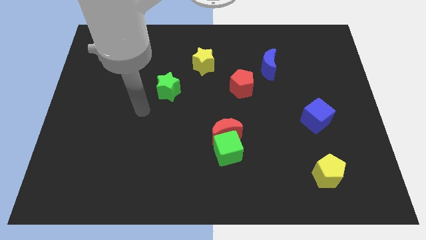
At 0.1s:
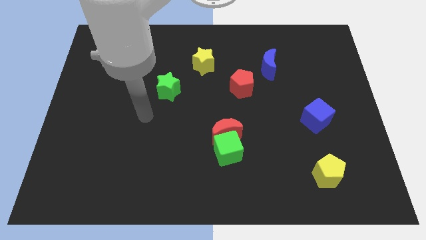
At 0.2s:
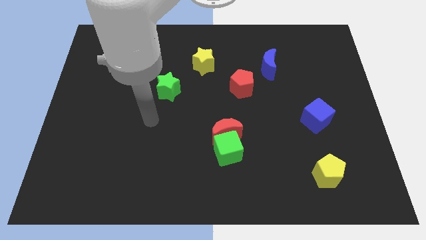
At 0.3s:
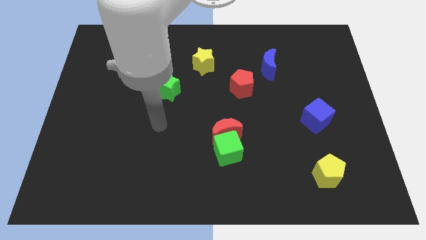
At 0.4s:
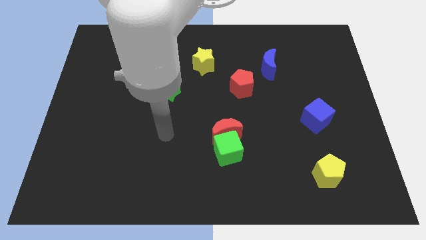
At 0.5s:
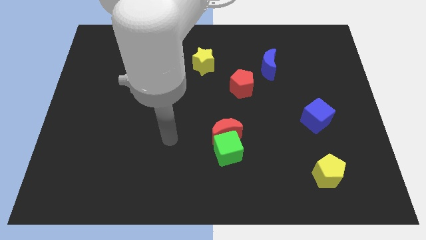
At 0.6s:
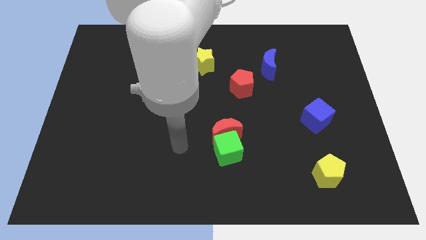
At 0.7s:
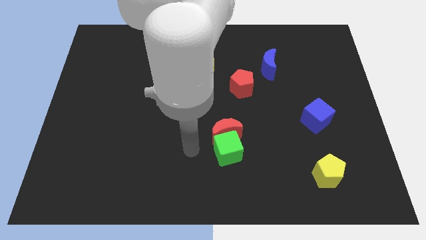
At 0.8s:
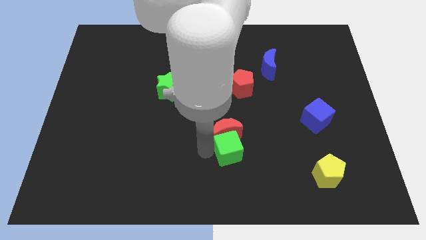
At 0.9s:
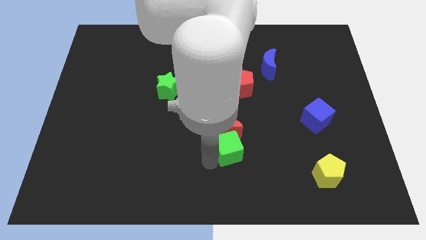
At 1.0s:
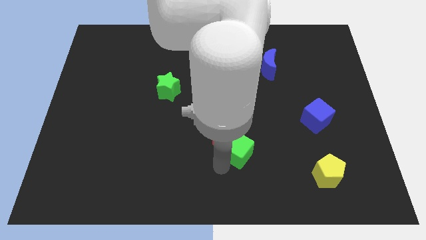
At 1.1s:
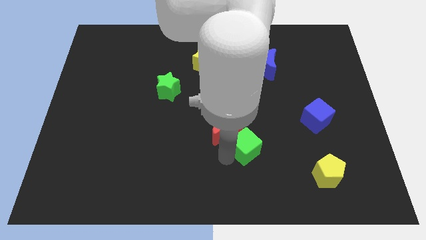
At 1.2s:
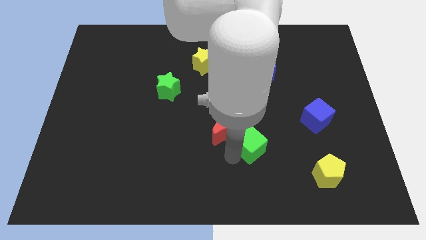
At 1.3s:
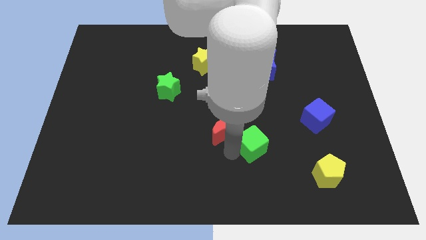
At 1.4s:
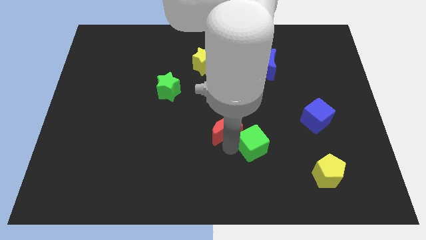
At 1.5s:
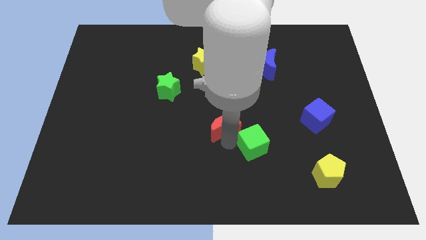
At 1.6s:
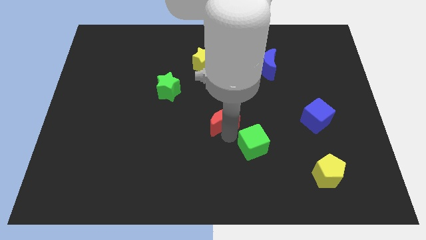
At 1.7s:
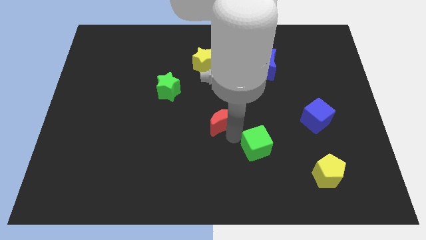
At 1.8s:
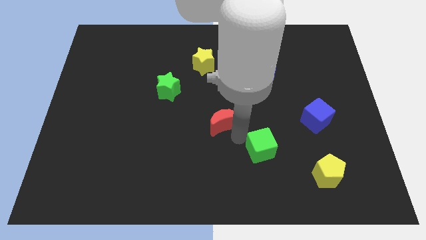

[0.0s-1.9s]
pull the red moon apart from the green cube

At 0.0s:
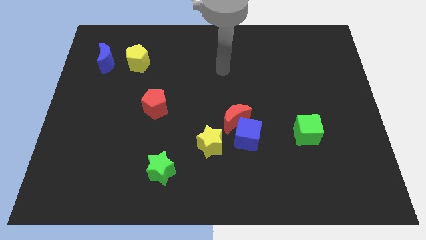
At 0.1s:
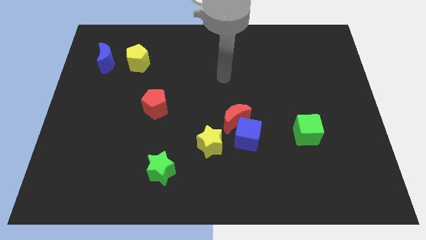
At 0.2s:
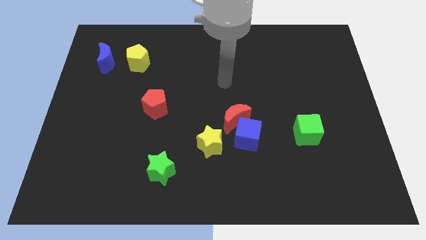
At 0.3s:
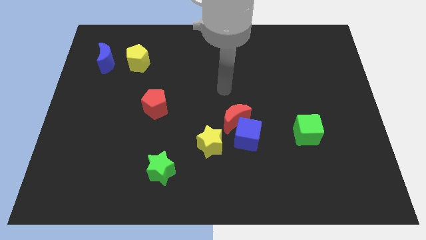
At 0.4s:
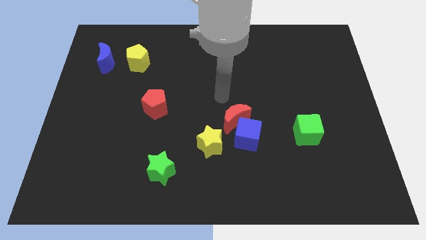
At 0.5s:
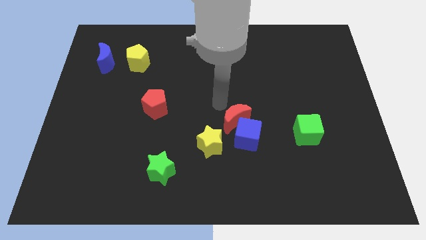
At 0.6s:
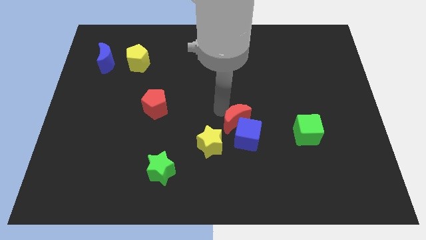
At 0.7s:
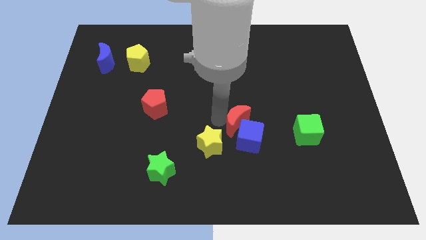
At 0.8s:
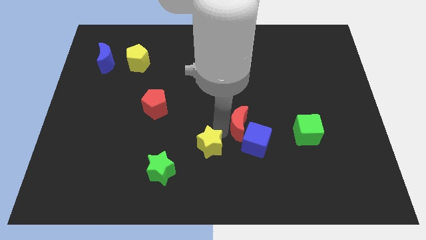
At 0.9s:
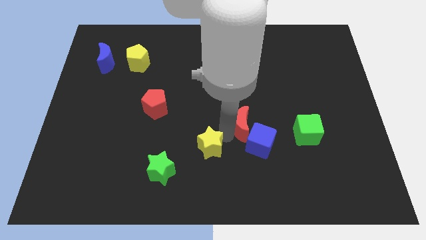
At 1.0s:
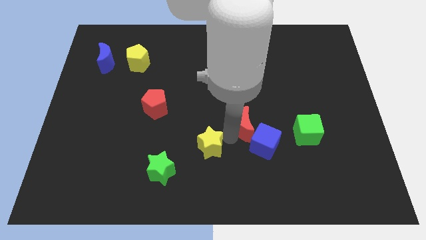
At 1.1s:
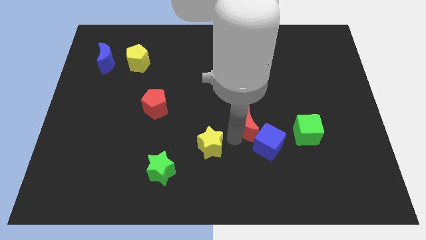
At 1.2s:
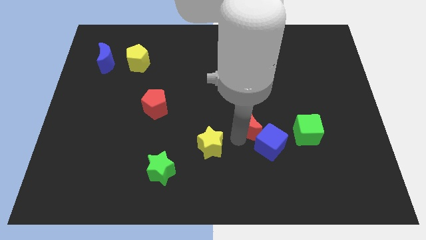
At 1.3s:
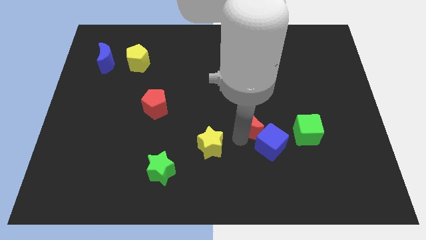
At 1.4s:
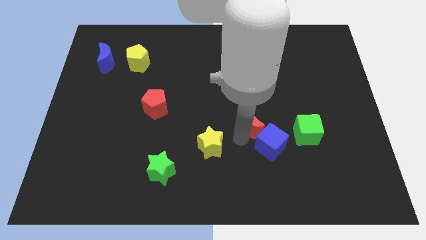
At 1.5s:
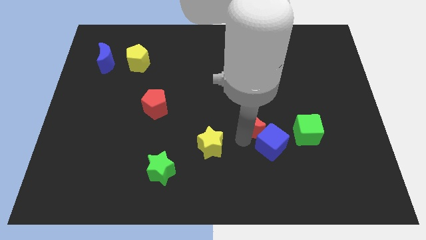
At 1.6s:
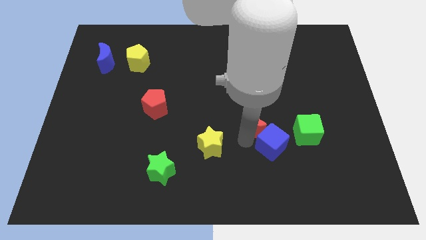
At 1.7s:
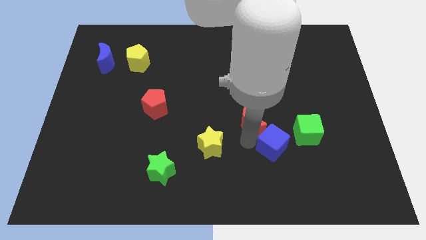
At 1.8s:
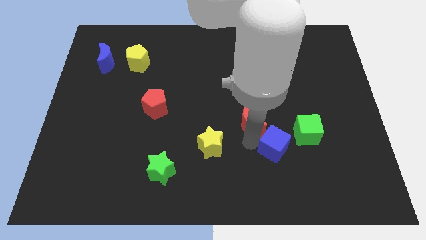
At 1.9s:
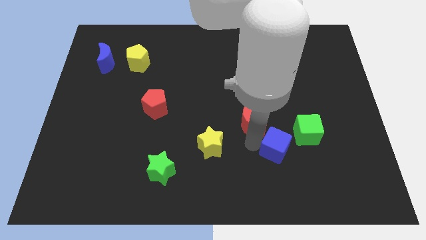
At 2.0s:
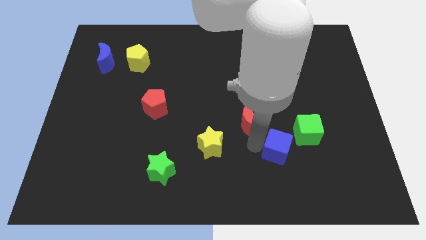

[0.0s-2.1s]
separate the blue cube from the red moon and yellow star

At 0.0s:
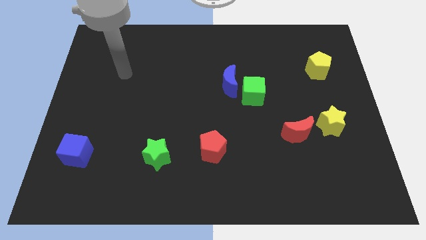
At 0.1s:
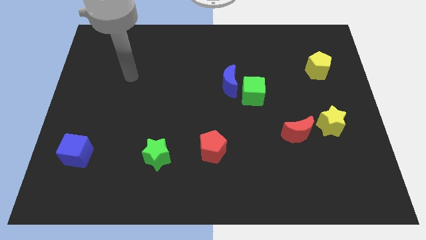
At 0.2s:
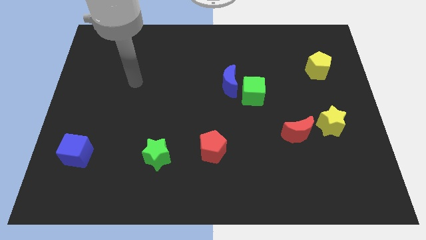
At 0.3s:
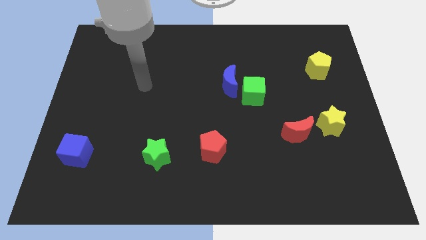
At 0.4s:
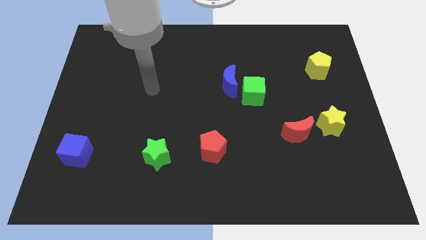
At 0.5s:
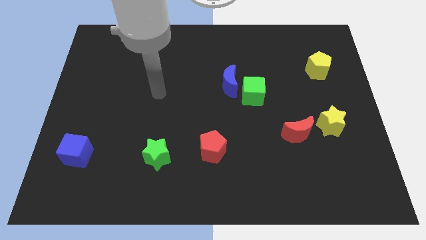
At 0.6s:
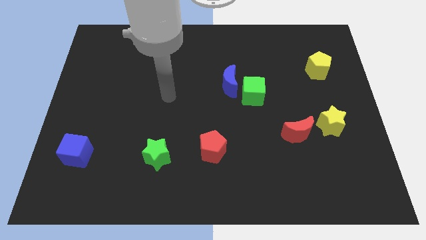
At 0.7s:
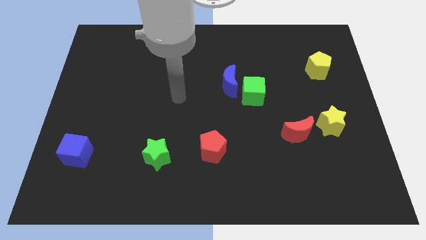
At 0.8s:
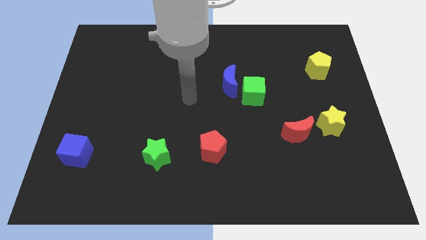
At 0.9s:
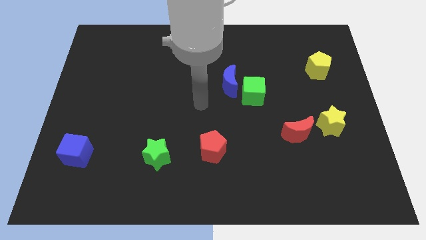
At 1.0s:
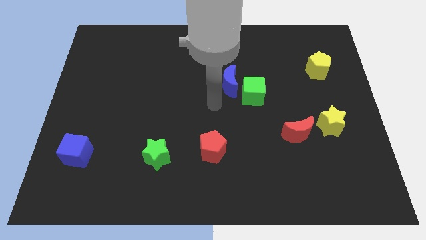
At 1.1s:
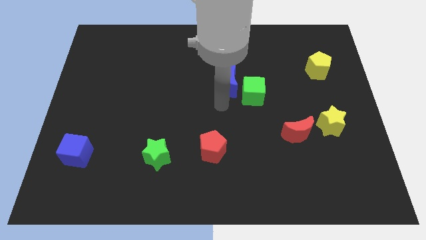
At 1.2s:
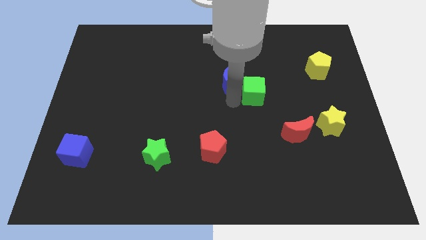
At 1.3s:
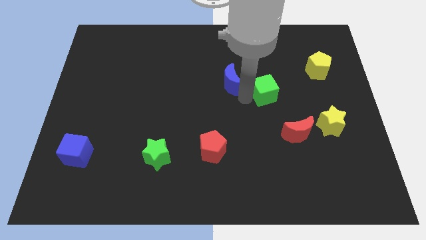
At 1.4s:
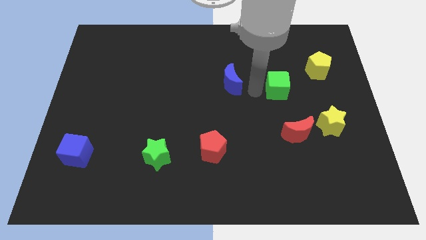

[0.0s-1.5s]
pull the blue moon apart from the green cube

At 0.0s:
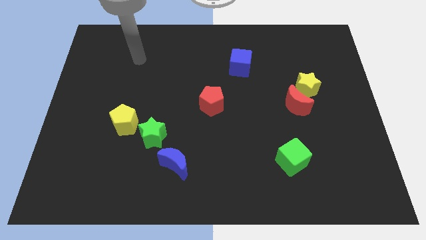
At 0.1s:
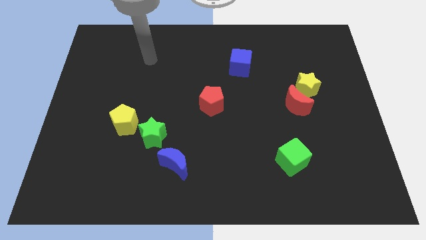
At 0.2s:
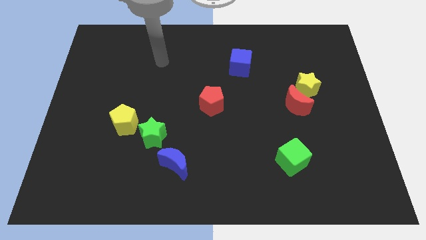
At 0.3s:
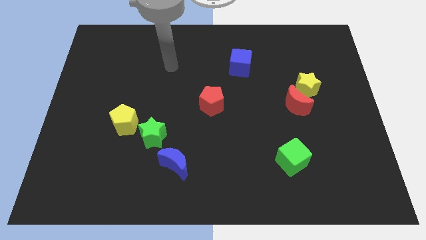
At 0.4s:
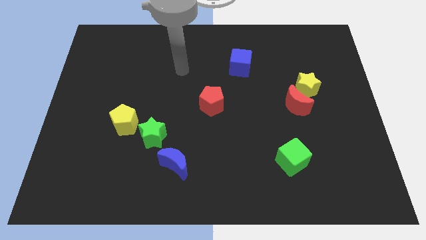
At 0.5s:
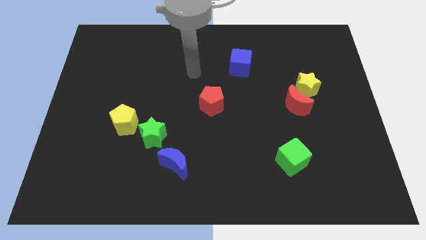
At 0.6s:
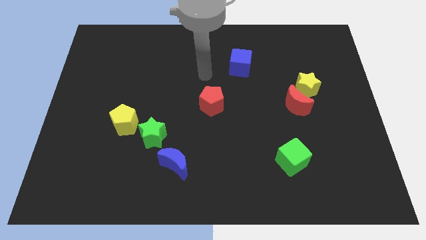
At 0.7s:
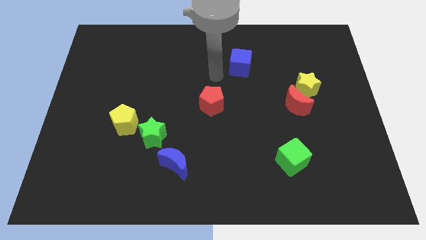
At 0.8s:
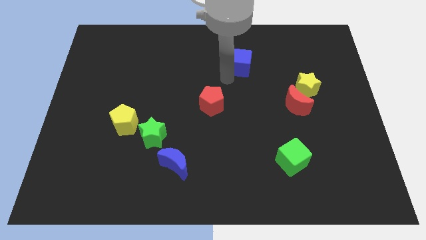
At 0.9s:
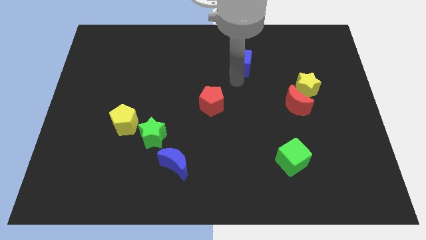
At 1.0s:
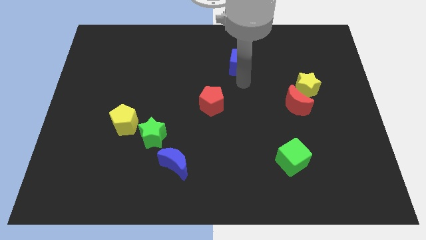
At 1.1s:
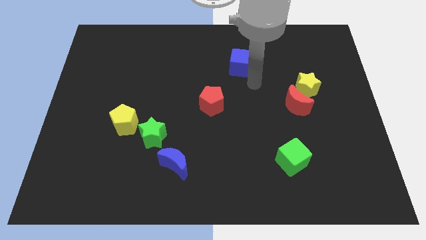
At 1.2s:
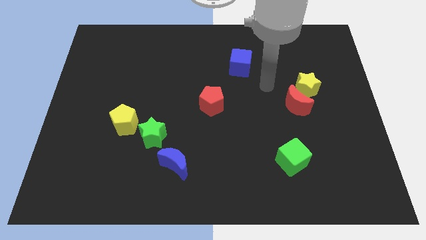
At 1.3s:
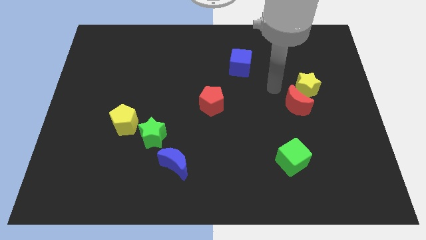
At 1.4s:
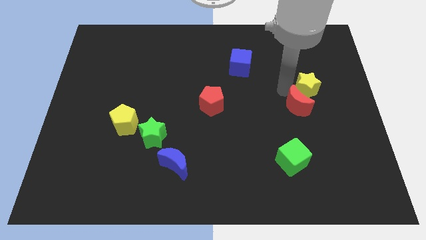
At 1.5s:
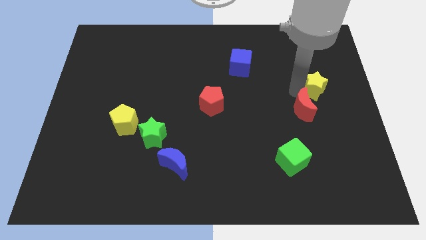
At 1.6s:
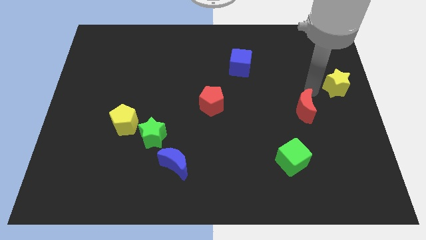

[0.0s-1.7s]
pull the red moon apart from the yellow star

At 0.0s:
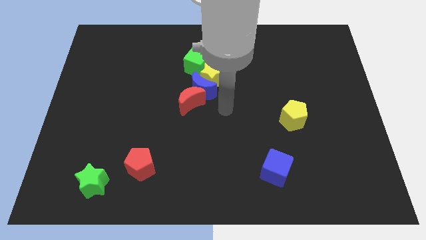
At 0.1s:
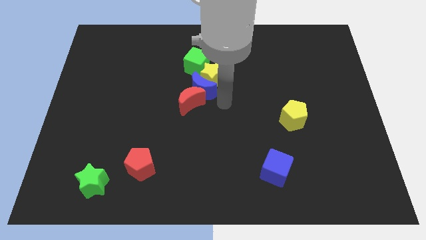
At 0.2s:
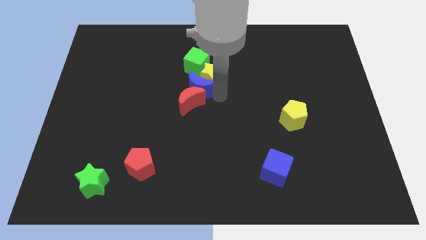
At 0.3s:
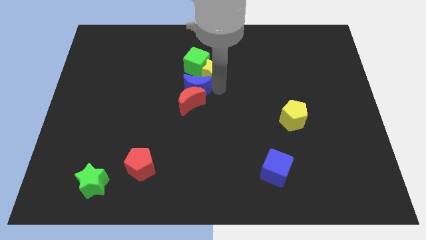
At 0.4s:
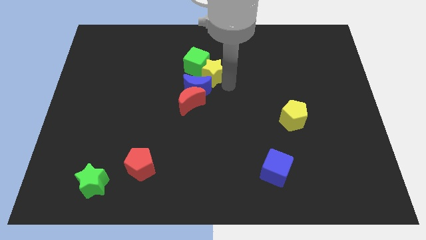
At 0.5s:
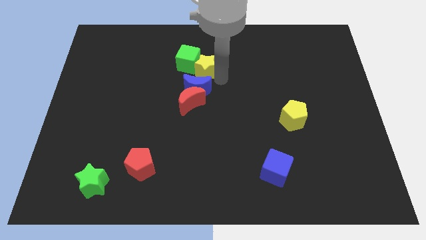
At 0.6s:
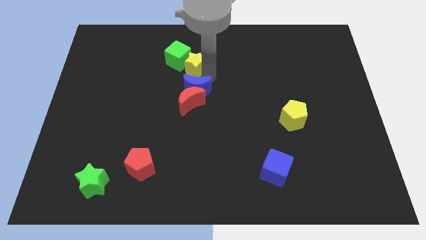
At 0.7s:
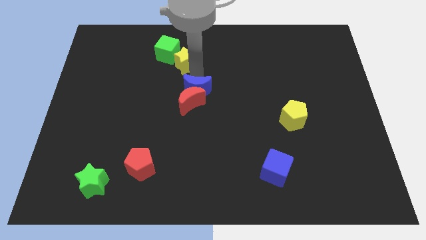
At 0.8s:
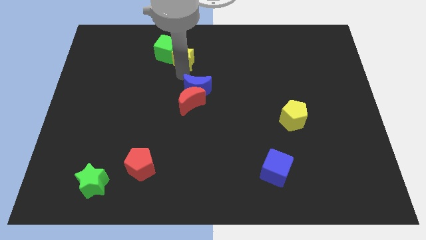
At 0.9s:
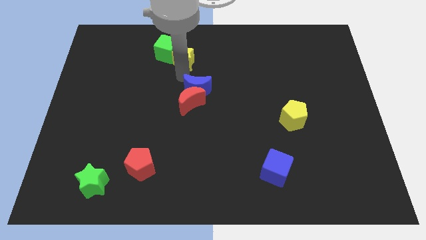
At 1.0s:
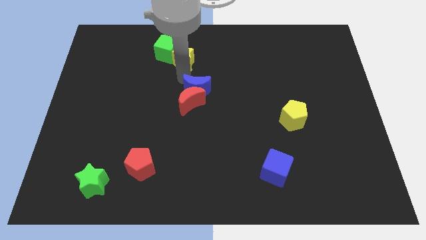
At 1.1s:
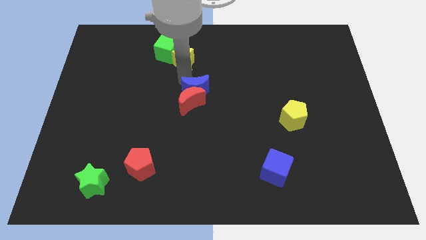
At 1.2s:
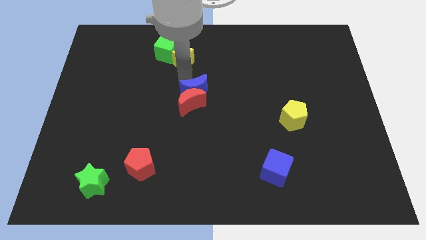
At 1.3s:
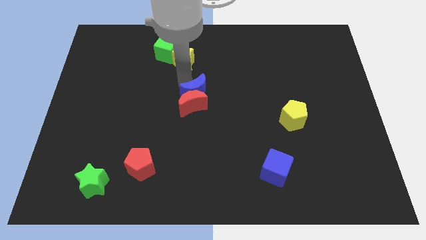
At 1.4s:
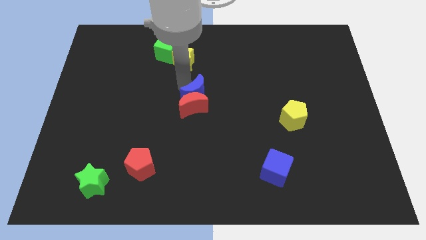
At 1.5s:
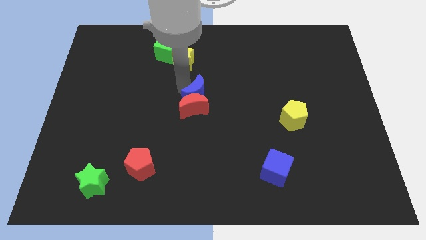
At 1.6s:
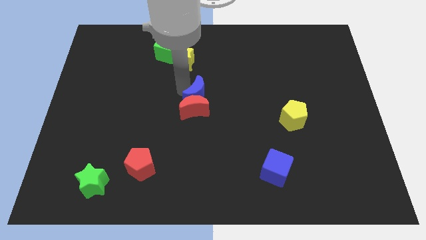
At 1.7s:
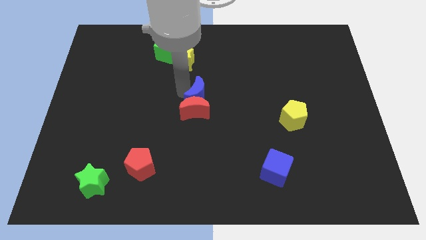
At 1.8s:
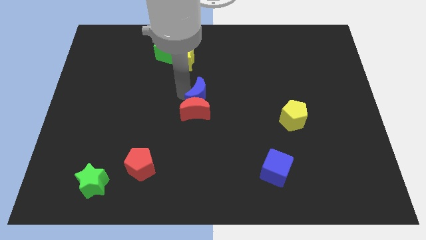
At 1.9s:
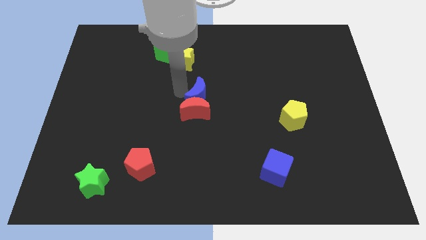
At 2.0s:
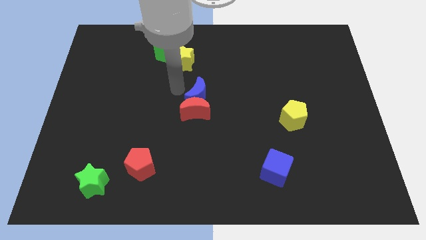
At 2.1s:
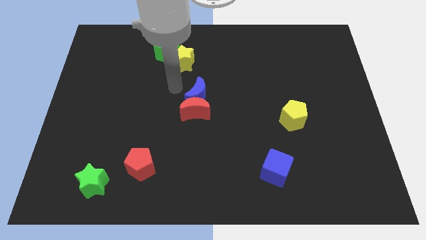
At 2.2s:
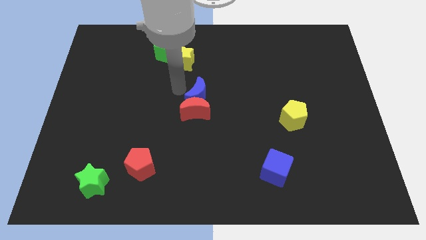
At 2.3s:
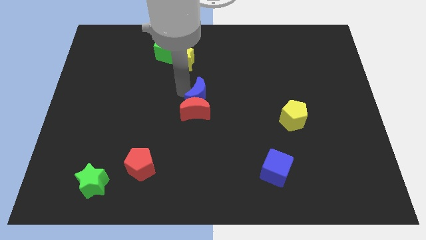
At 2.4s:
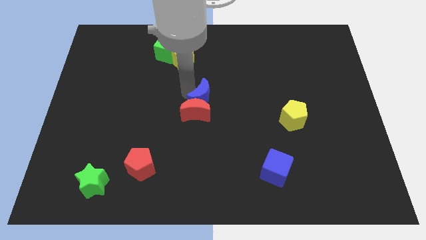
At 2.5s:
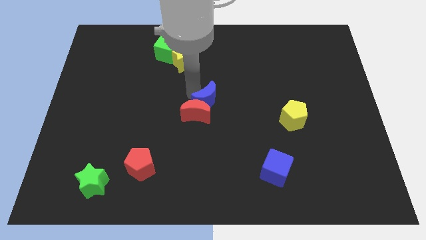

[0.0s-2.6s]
pull the blue moon apart from the clump
